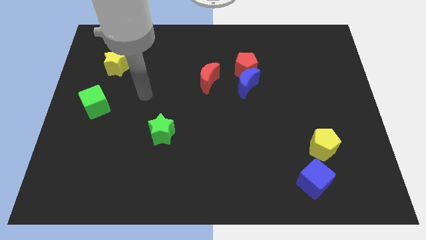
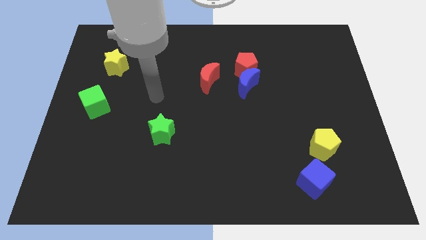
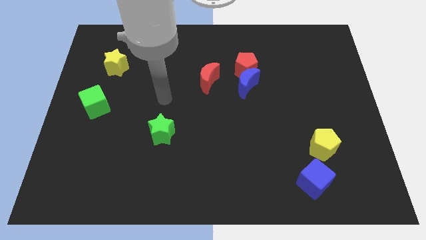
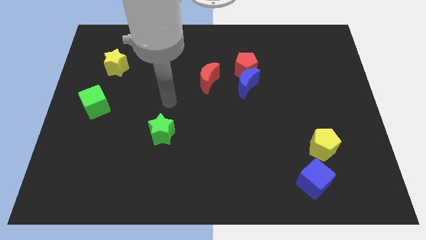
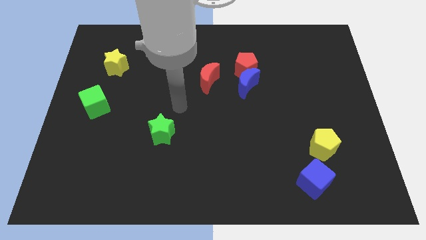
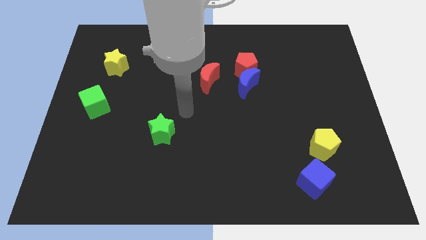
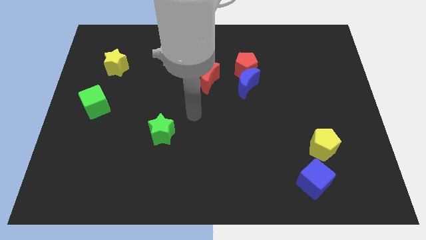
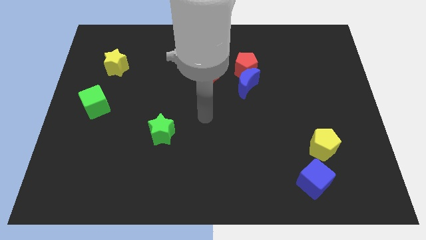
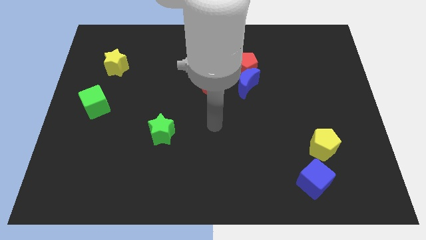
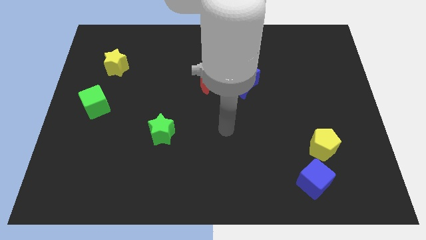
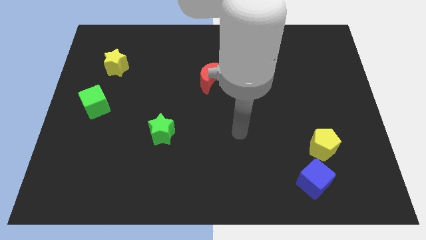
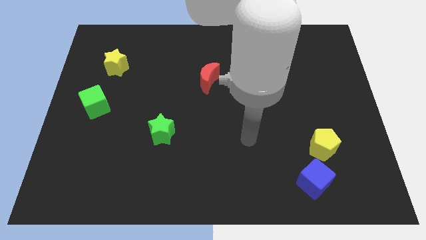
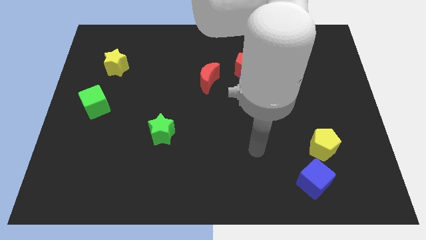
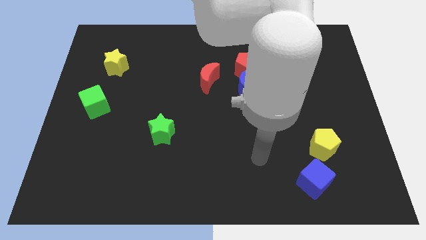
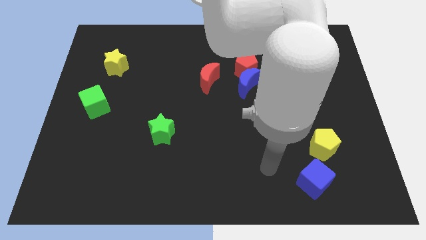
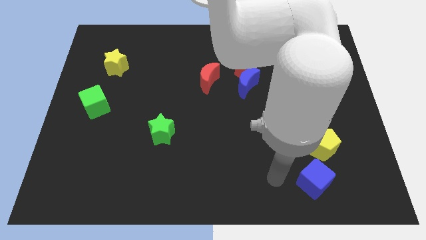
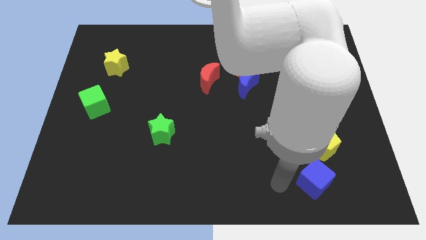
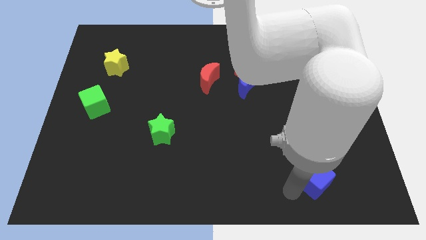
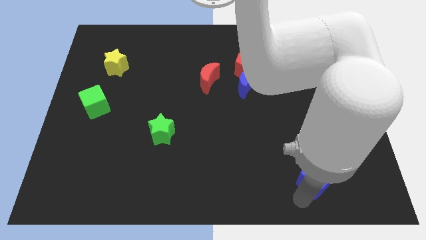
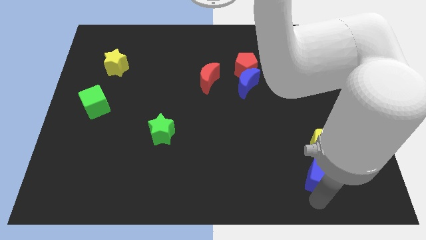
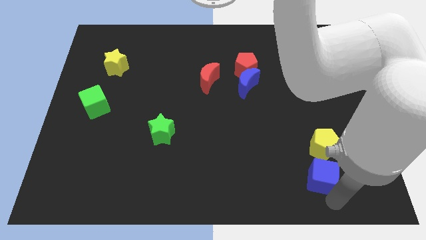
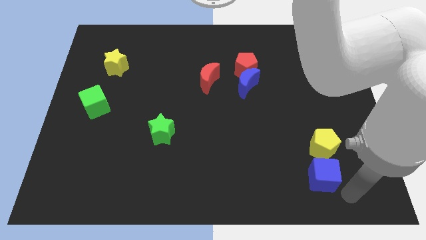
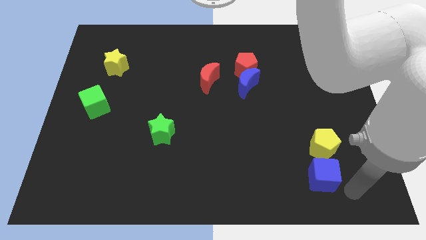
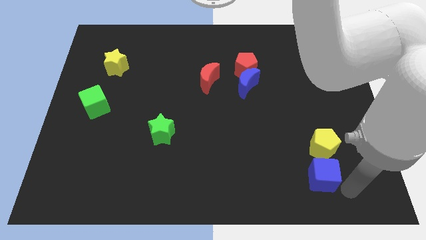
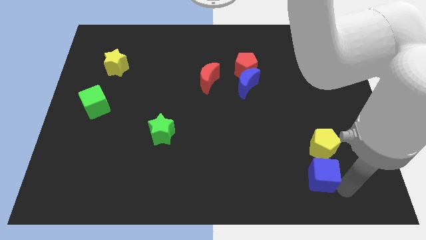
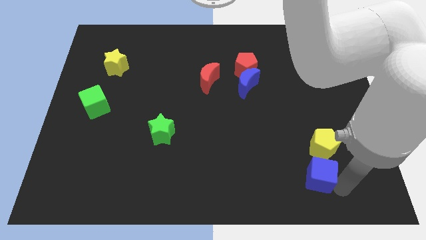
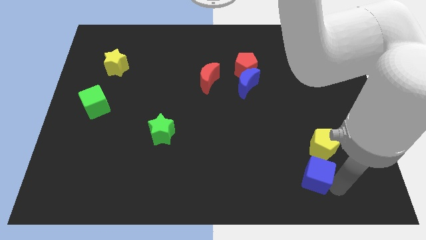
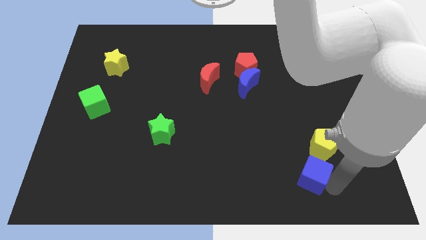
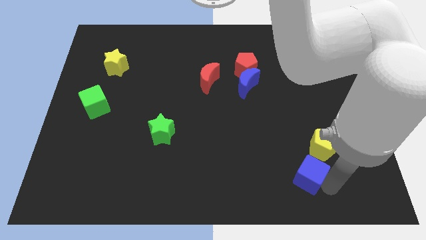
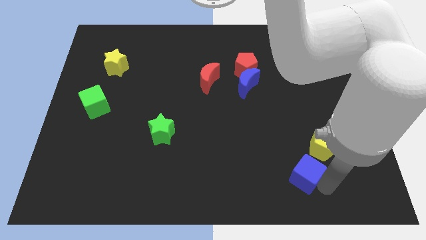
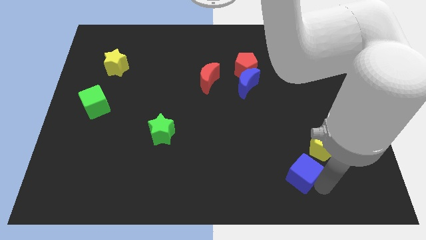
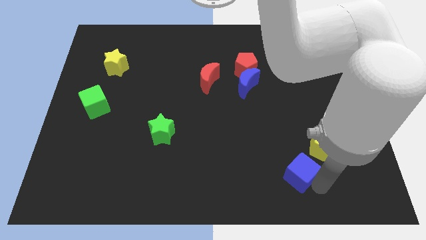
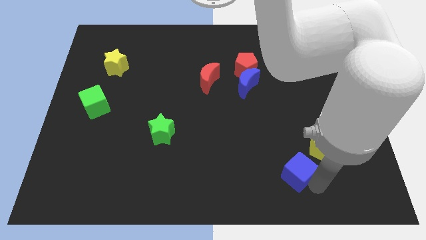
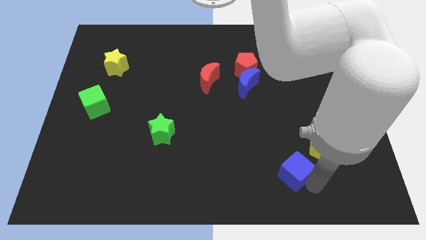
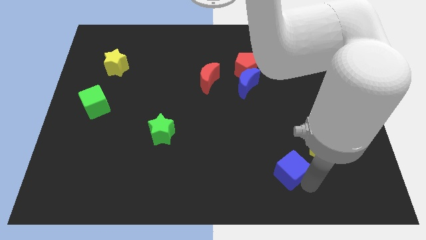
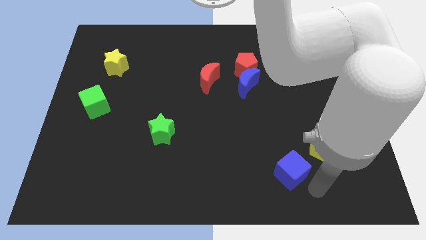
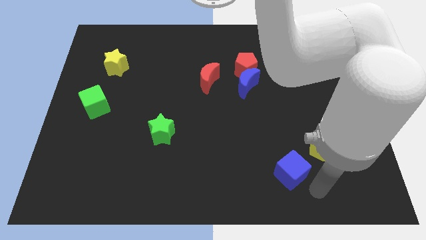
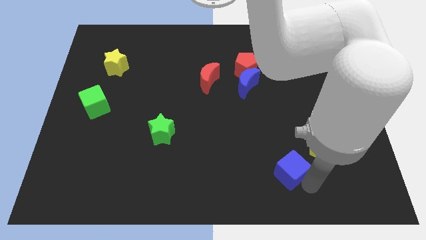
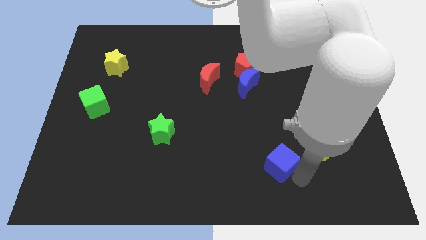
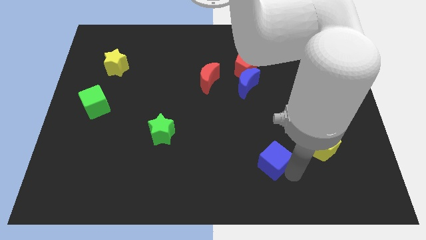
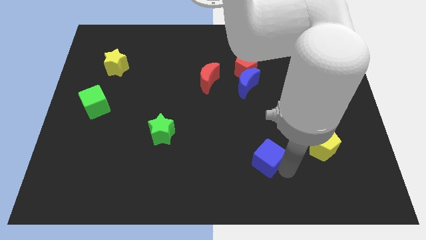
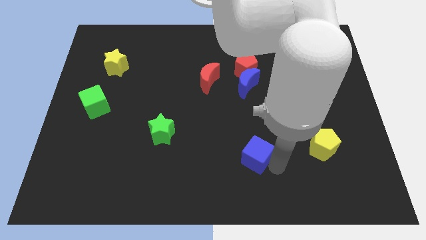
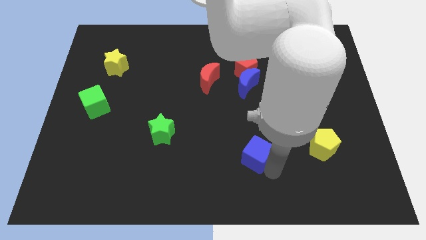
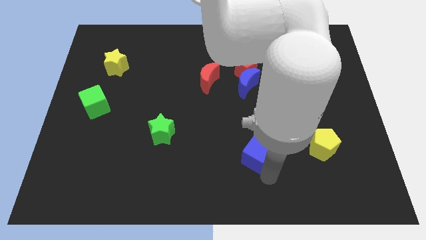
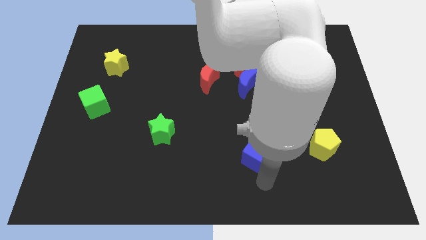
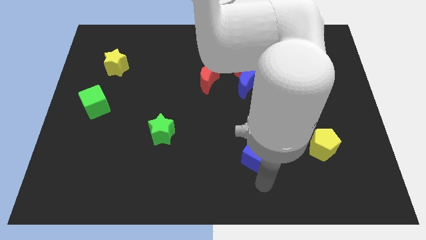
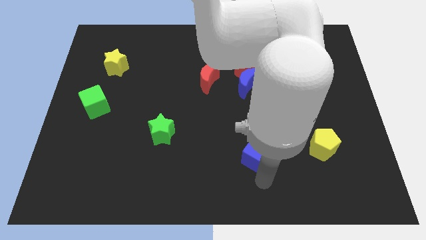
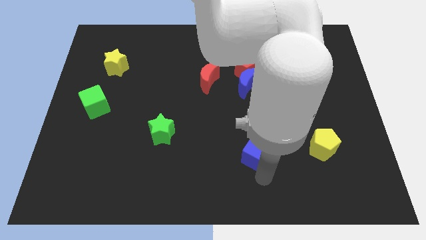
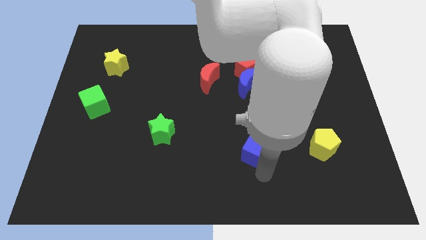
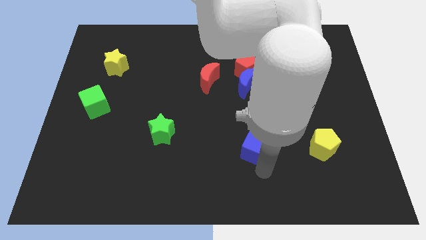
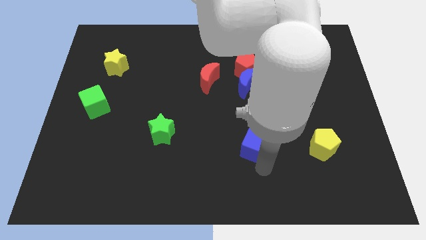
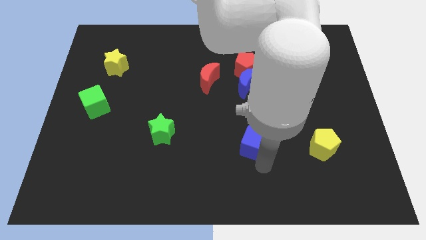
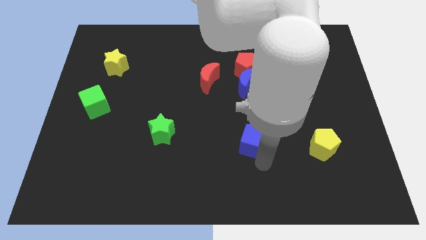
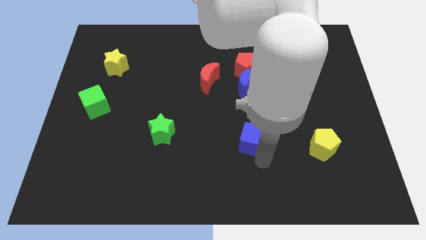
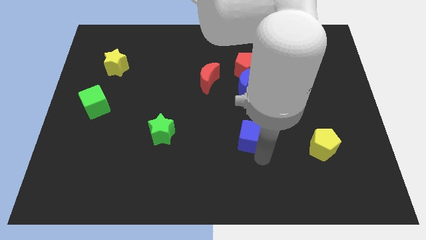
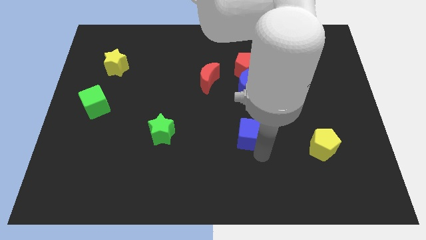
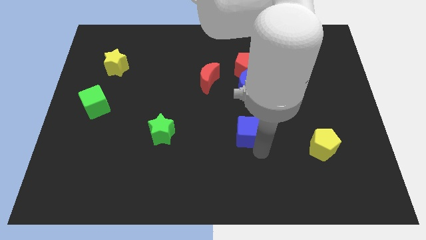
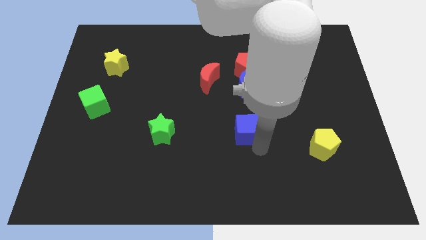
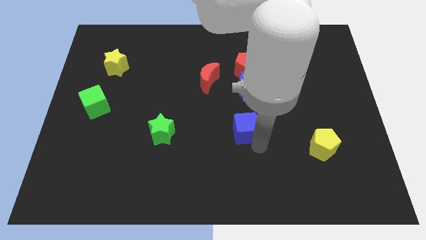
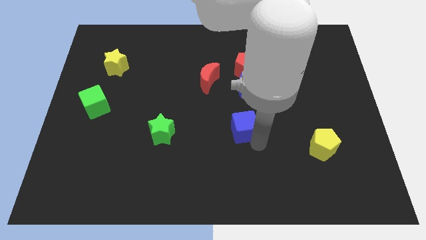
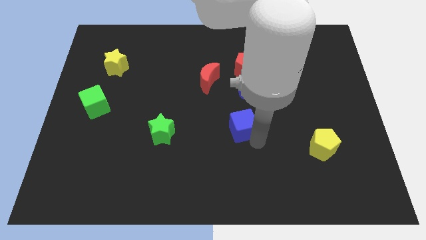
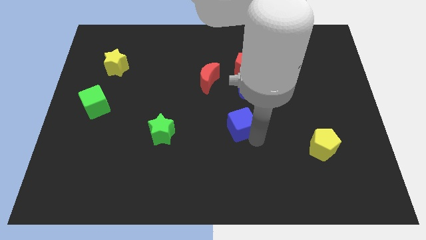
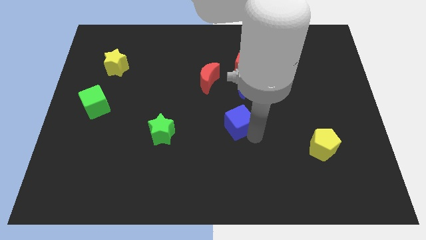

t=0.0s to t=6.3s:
move the blue cube upwards and left

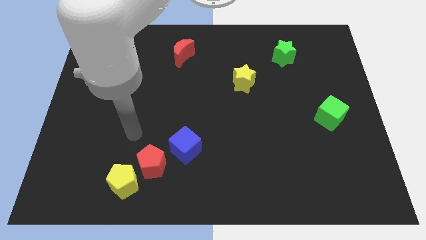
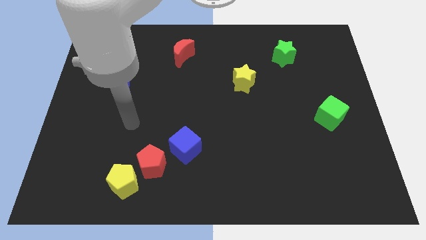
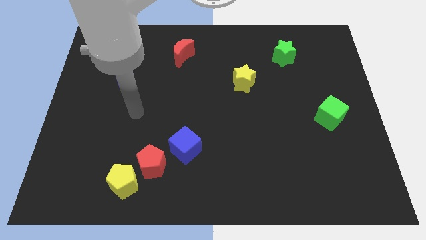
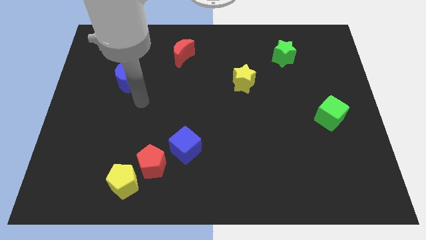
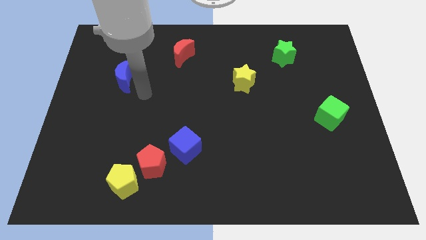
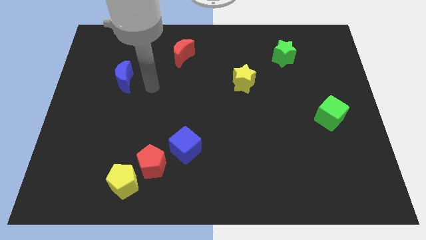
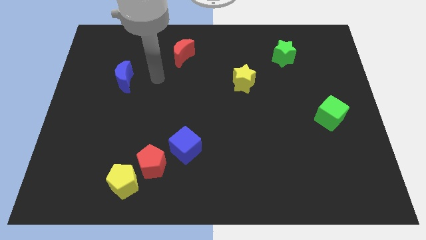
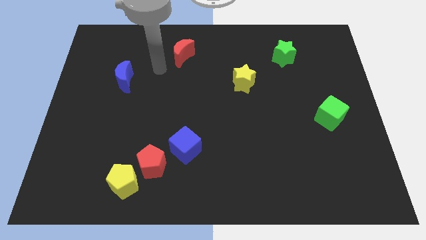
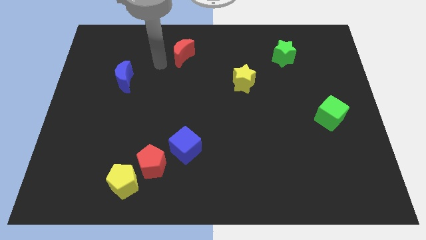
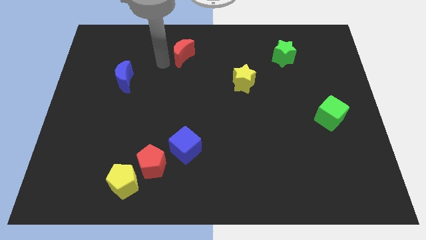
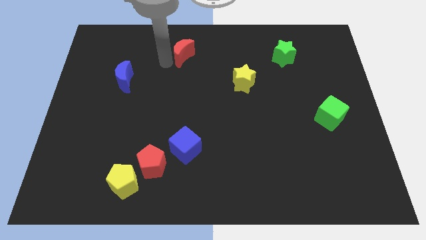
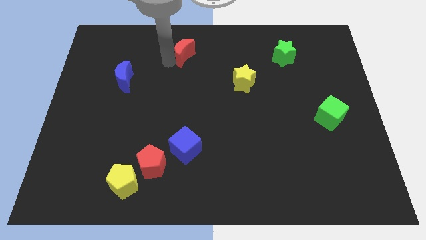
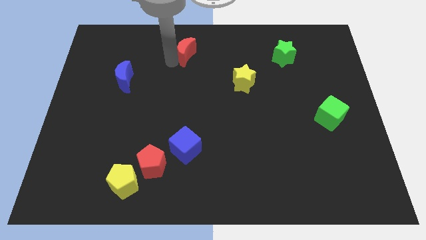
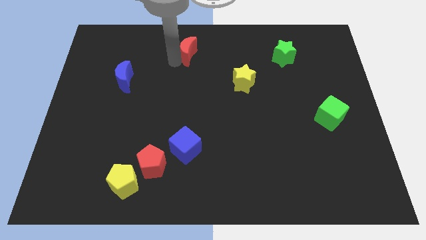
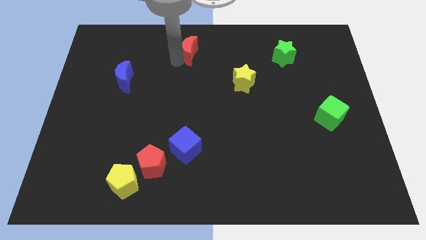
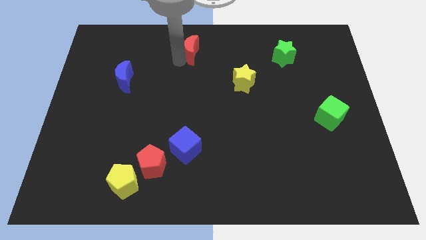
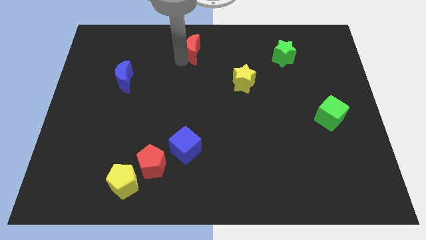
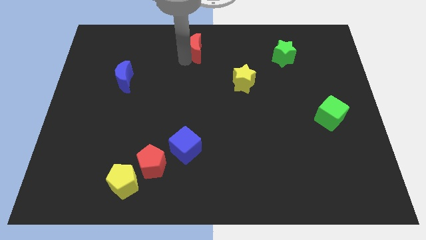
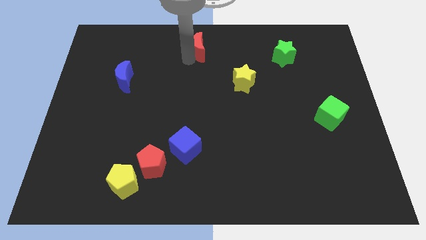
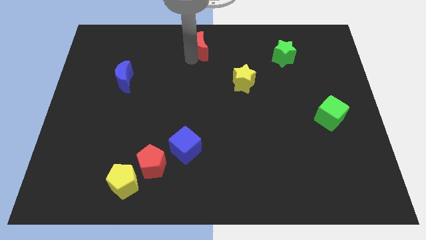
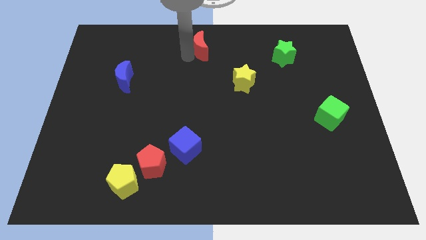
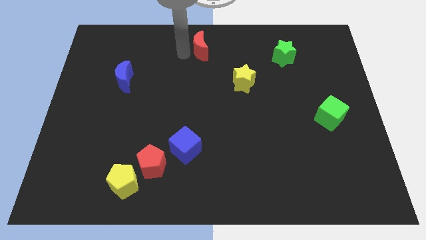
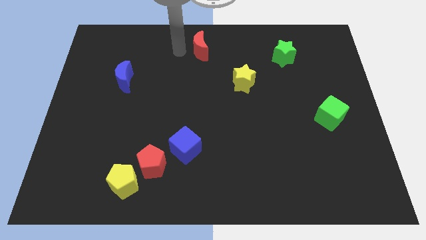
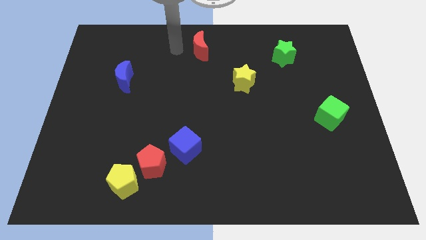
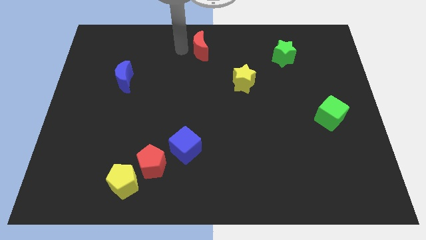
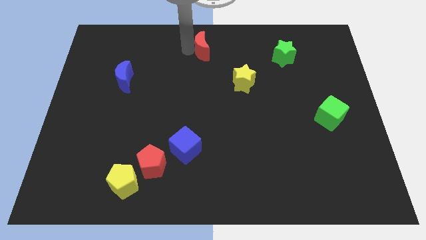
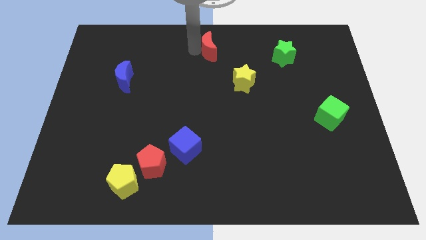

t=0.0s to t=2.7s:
slightly move the red moon to the right
